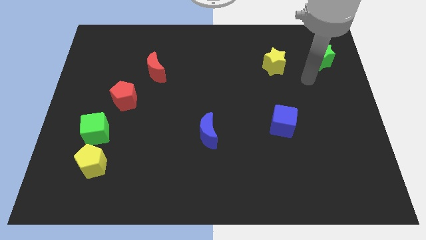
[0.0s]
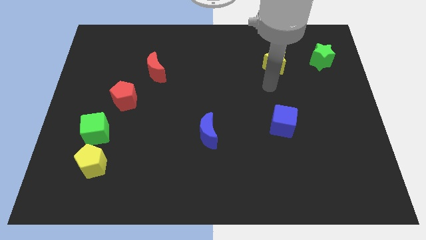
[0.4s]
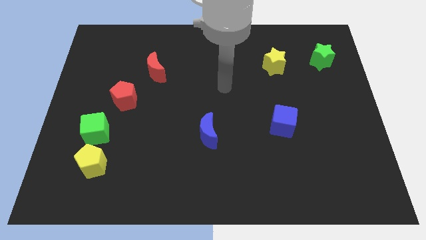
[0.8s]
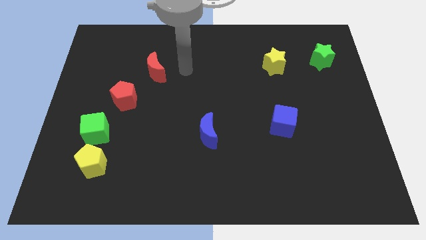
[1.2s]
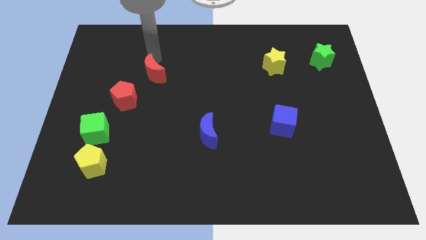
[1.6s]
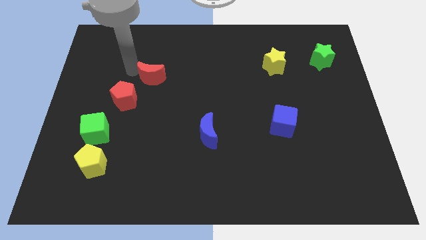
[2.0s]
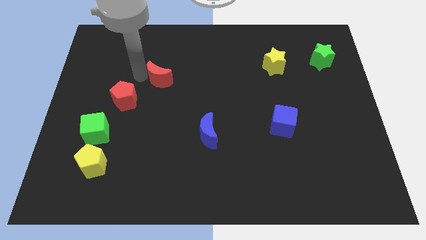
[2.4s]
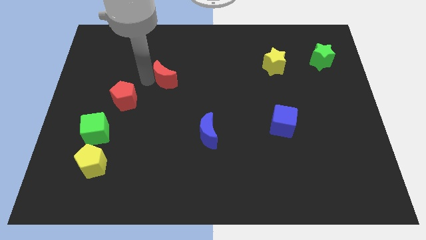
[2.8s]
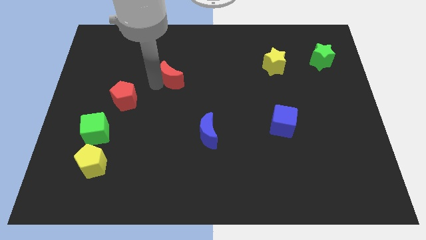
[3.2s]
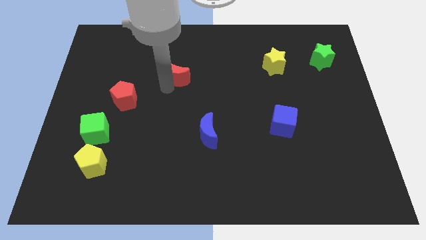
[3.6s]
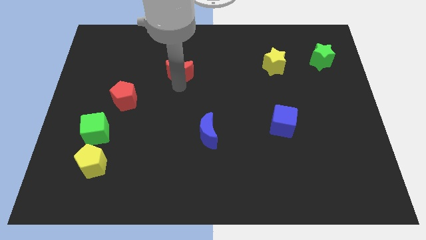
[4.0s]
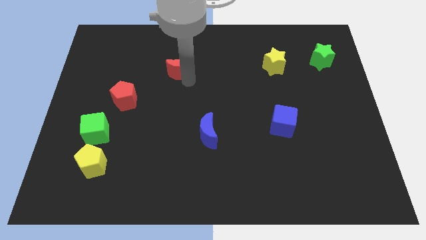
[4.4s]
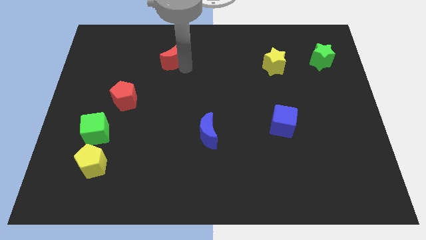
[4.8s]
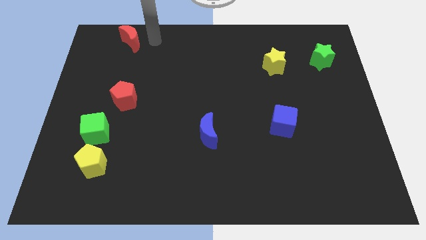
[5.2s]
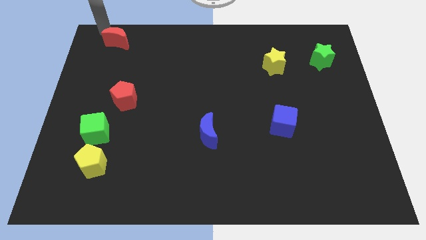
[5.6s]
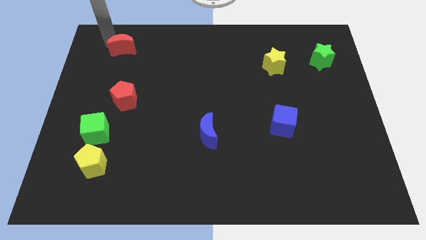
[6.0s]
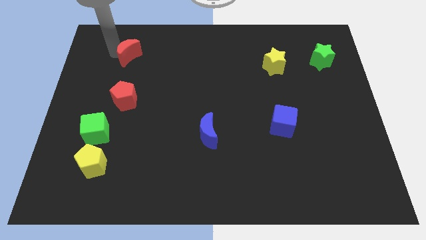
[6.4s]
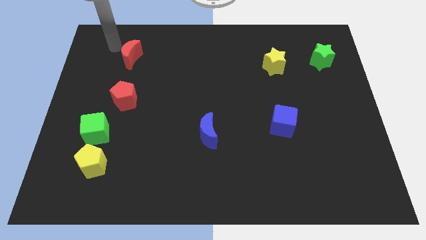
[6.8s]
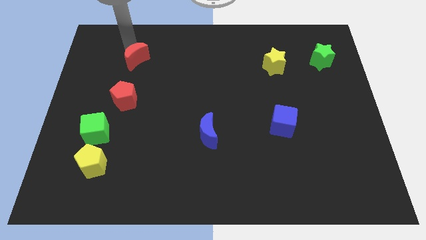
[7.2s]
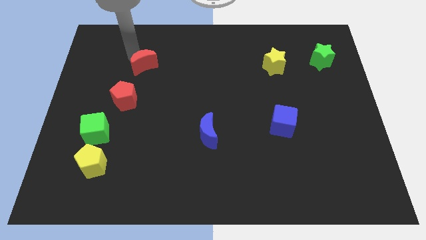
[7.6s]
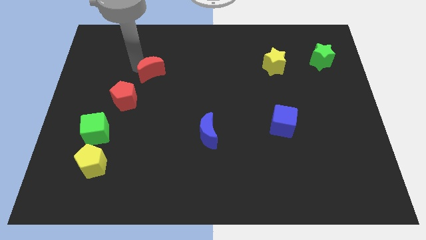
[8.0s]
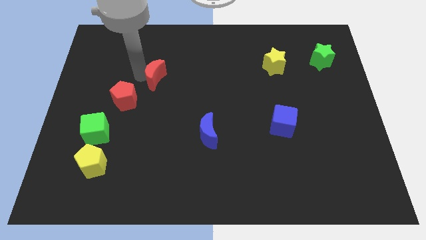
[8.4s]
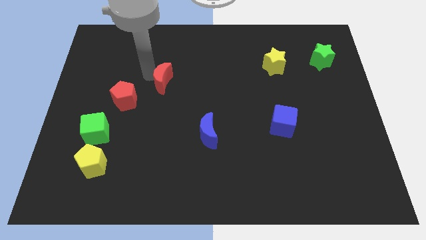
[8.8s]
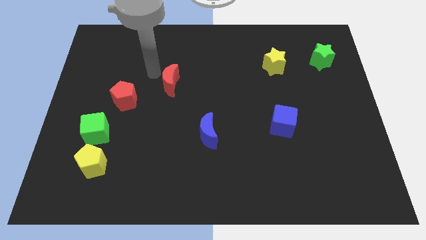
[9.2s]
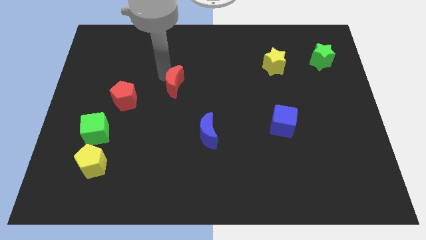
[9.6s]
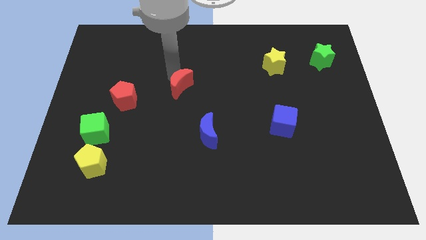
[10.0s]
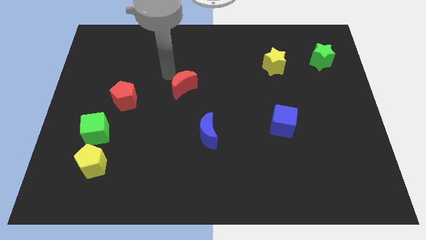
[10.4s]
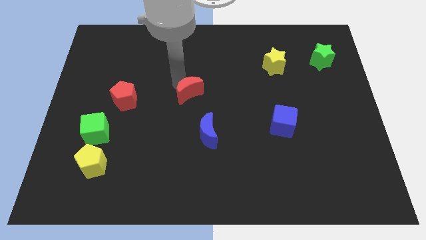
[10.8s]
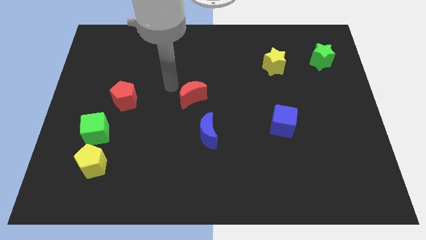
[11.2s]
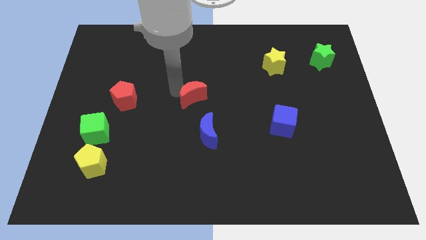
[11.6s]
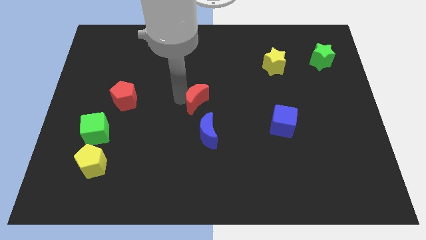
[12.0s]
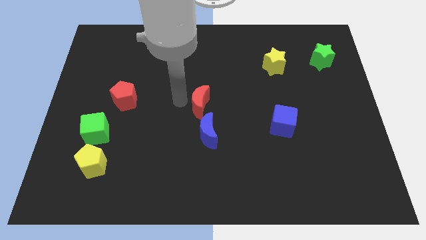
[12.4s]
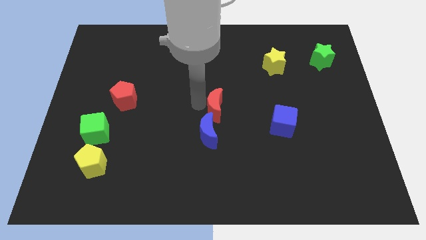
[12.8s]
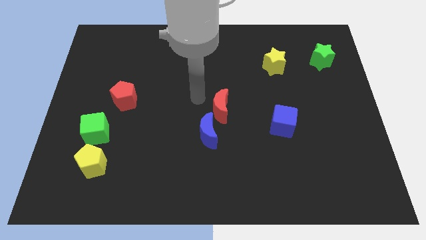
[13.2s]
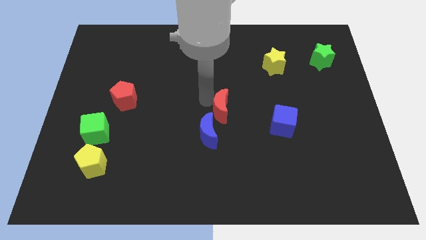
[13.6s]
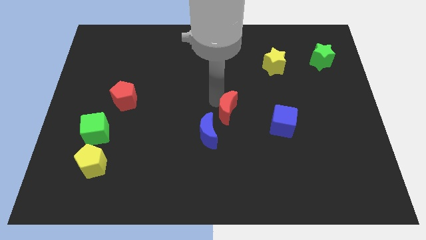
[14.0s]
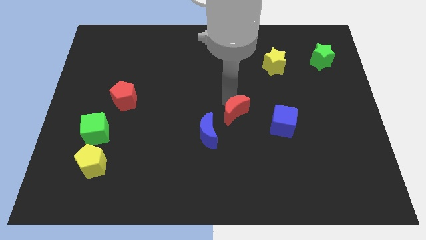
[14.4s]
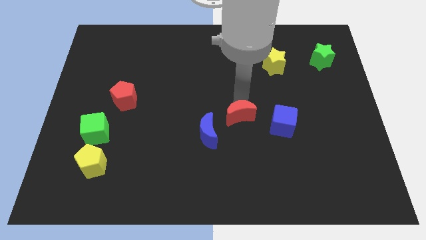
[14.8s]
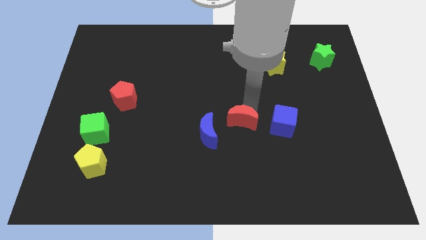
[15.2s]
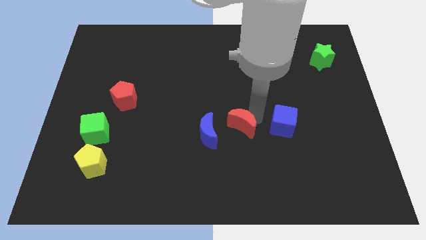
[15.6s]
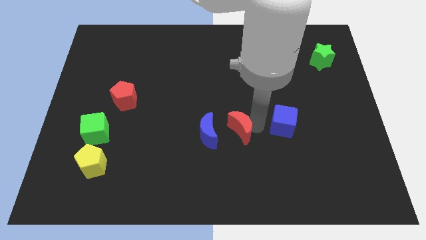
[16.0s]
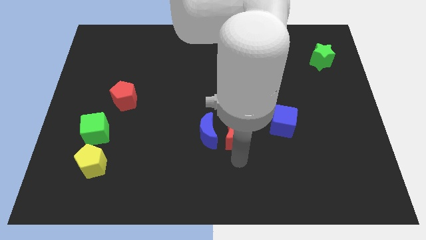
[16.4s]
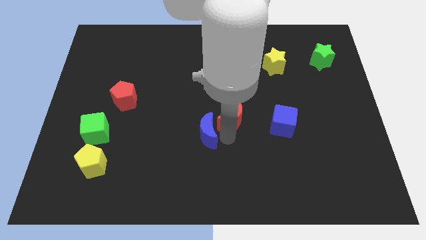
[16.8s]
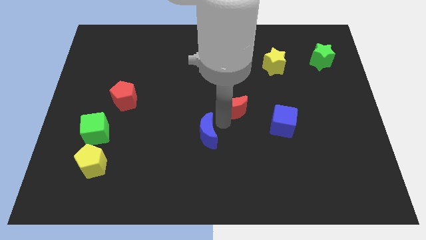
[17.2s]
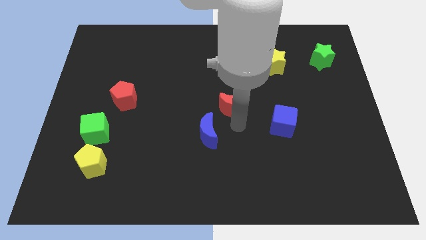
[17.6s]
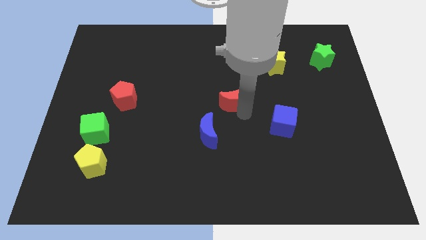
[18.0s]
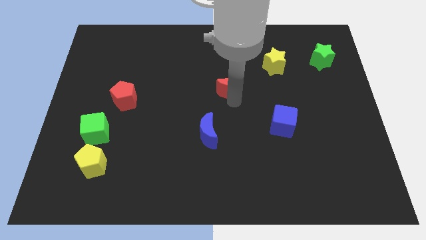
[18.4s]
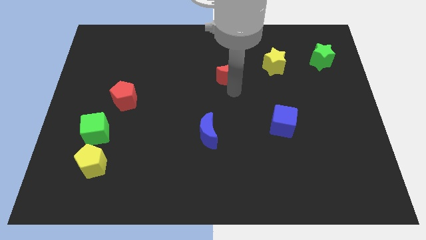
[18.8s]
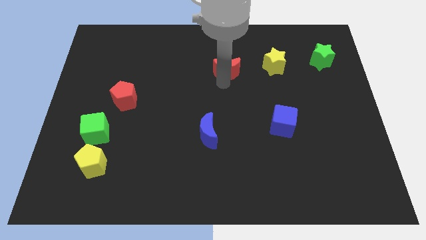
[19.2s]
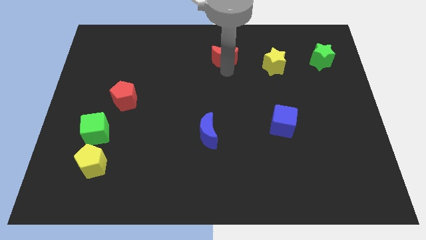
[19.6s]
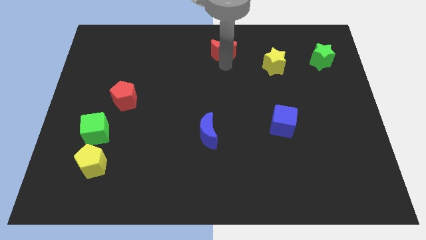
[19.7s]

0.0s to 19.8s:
put the red moon to the top side

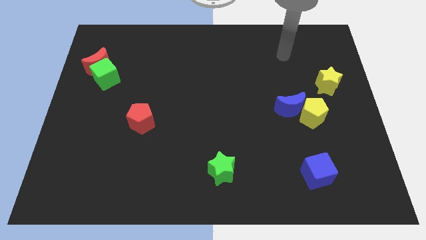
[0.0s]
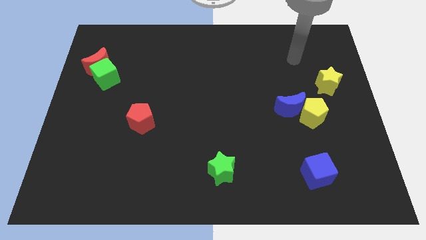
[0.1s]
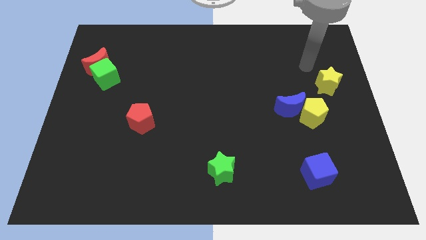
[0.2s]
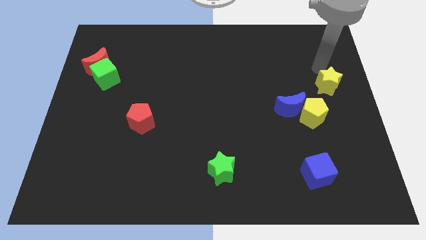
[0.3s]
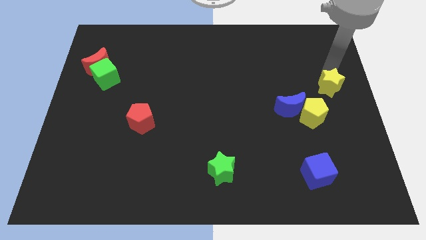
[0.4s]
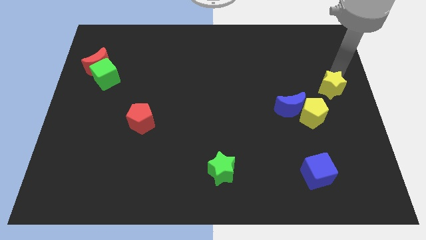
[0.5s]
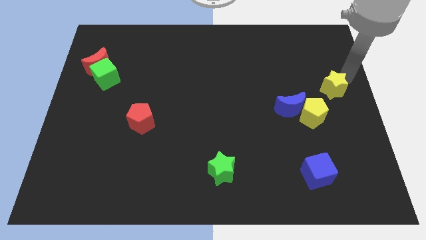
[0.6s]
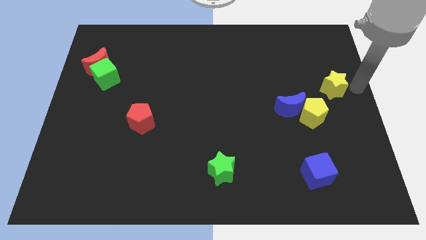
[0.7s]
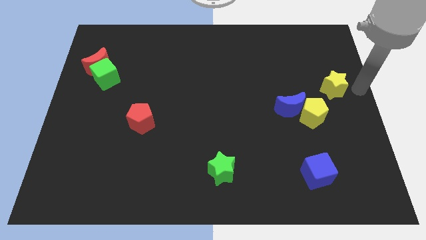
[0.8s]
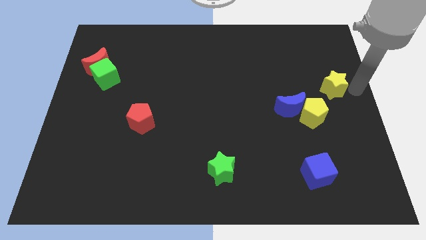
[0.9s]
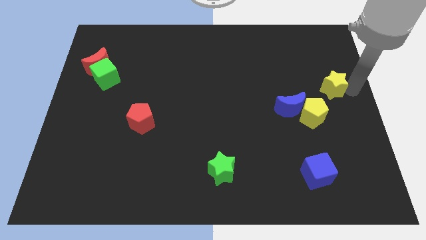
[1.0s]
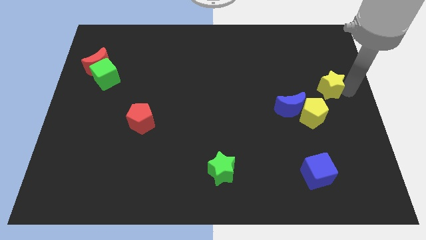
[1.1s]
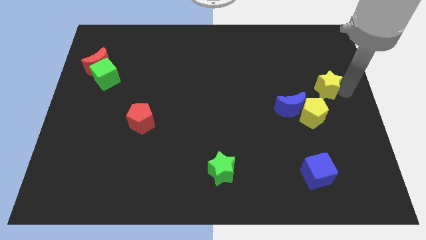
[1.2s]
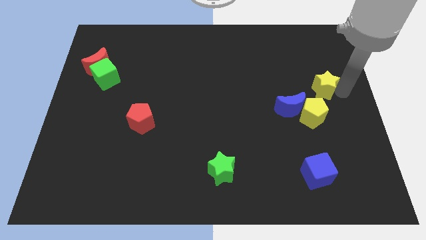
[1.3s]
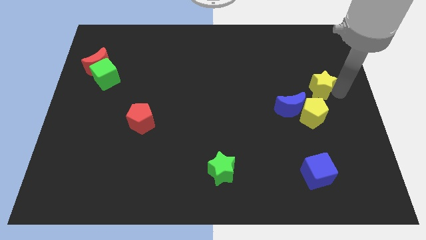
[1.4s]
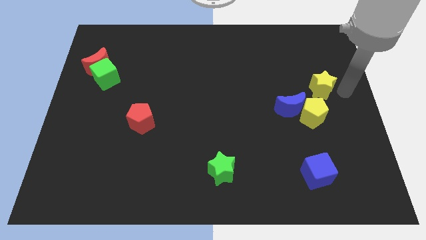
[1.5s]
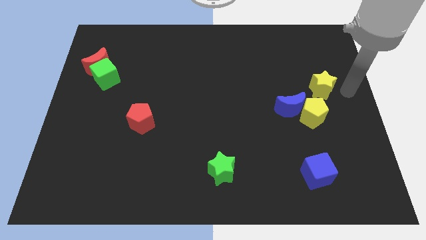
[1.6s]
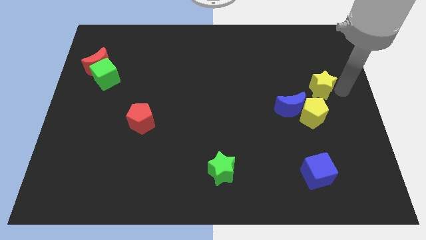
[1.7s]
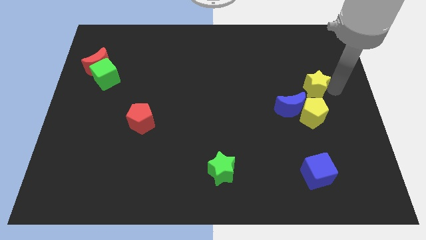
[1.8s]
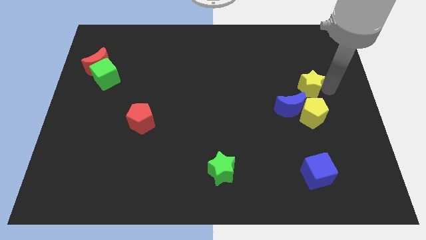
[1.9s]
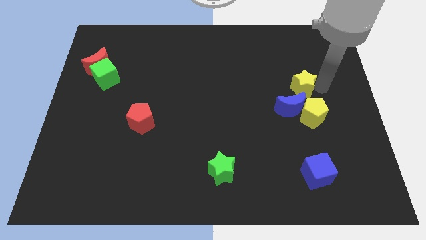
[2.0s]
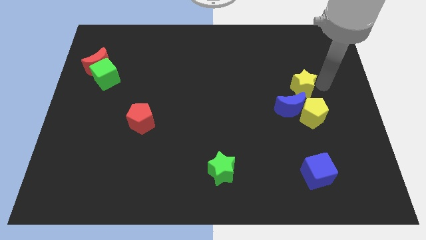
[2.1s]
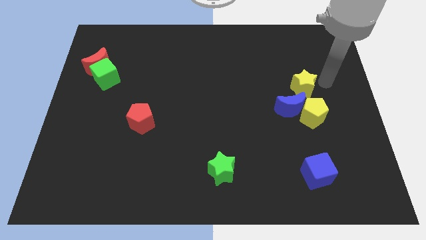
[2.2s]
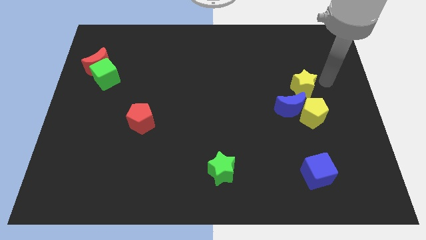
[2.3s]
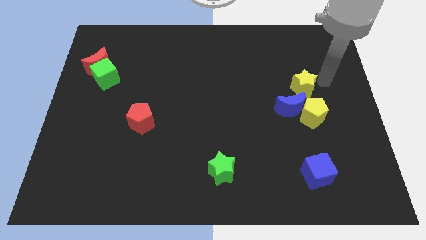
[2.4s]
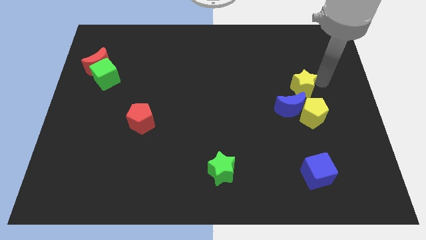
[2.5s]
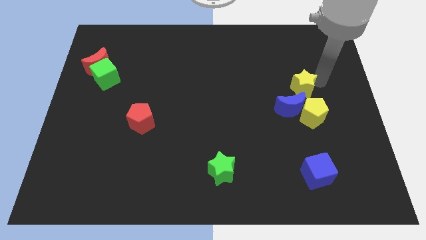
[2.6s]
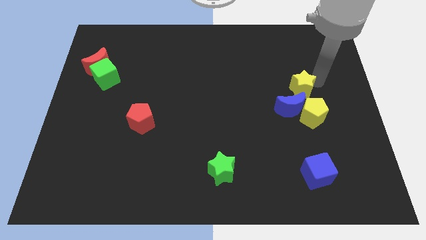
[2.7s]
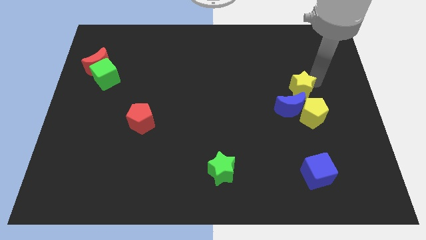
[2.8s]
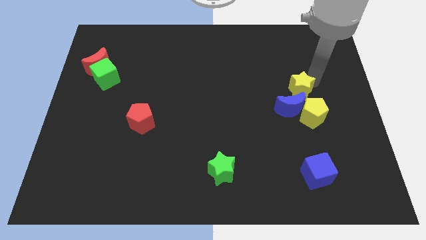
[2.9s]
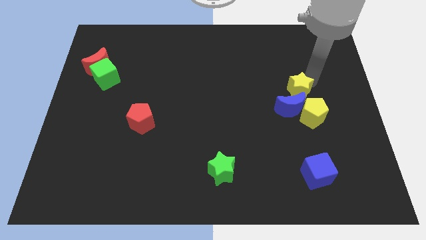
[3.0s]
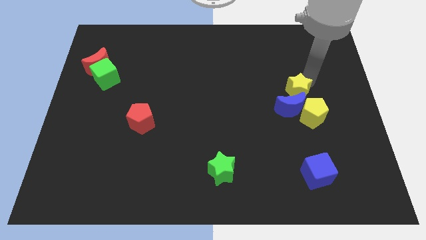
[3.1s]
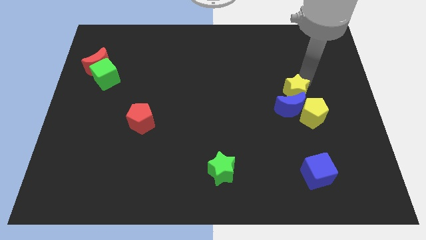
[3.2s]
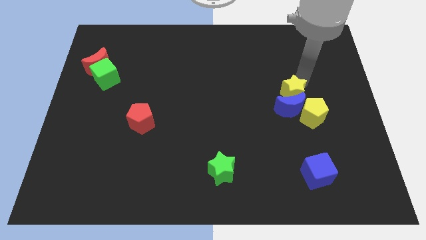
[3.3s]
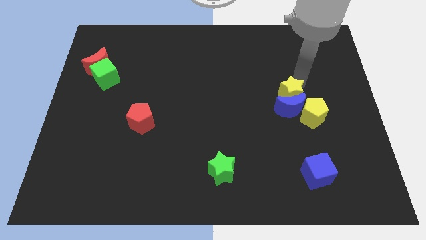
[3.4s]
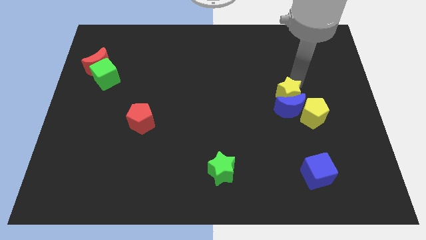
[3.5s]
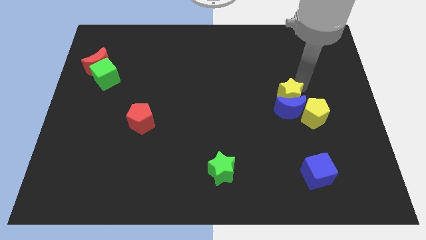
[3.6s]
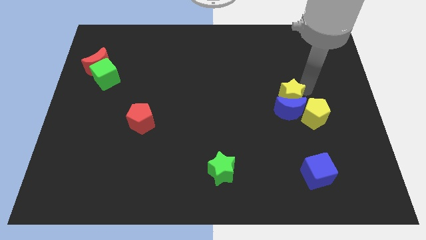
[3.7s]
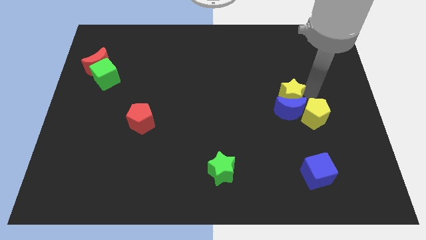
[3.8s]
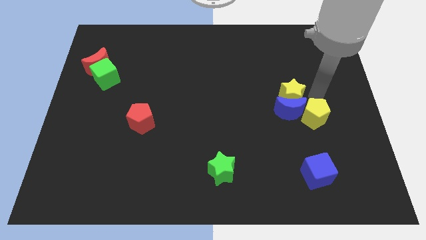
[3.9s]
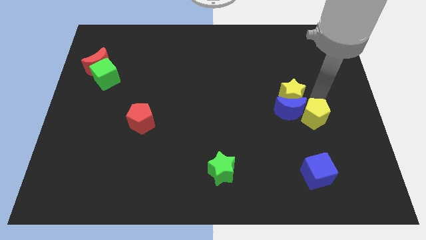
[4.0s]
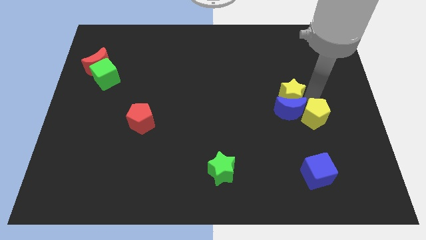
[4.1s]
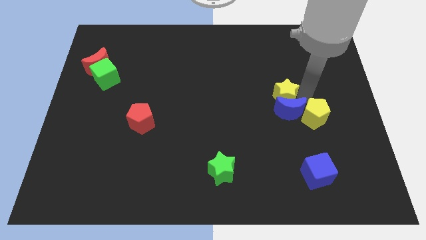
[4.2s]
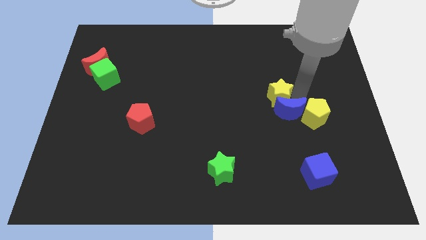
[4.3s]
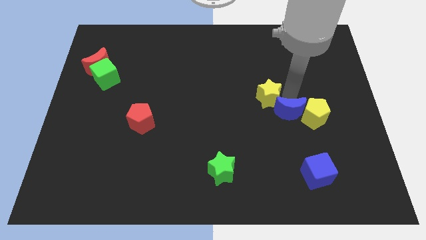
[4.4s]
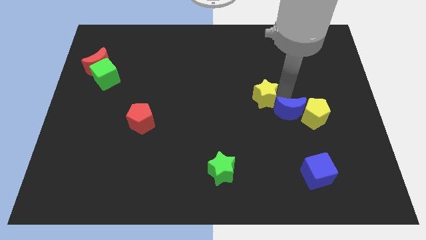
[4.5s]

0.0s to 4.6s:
slide the yellow star to the middle of the board
